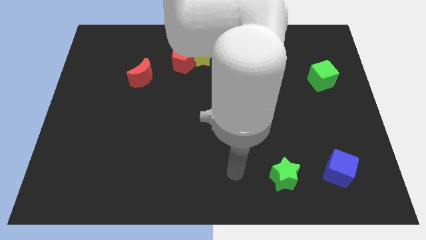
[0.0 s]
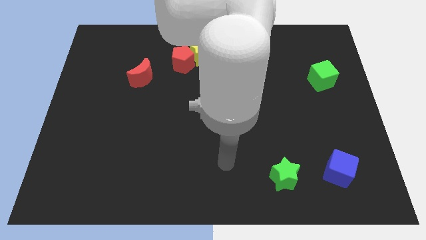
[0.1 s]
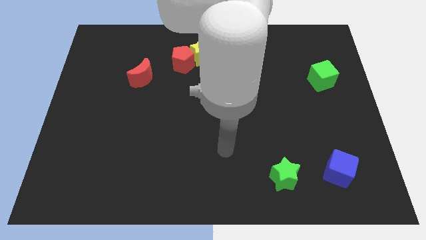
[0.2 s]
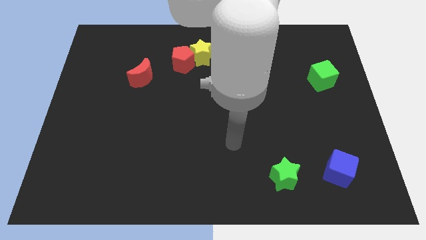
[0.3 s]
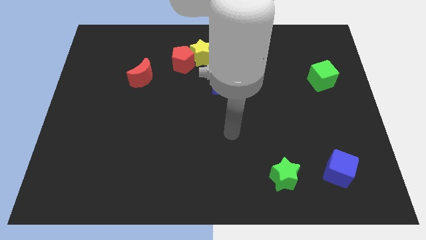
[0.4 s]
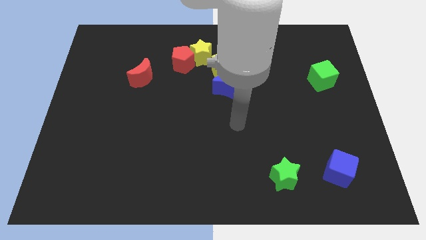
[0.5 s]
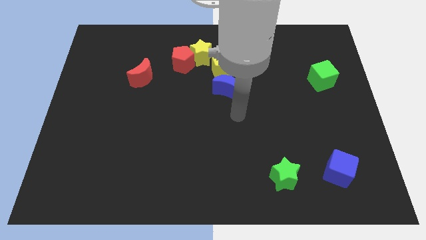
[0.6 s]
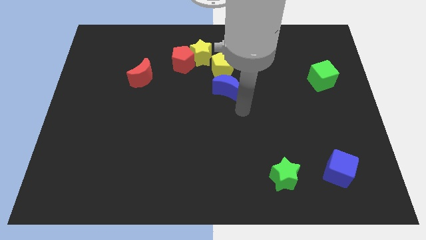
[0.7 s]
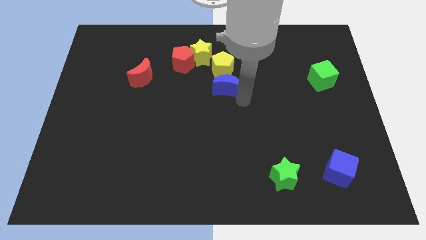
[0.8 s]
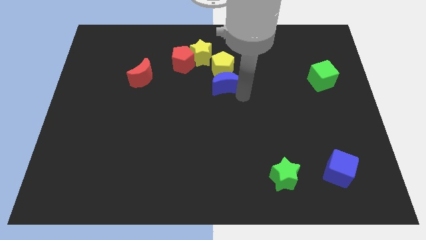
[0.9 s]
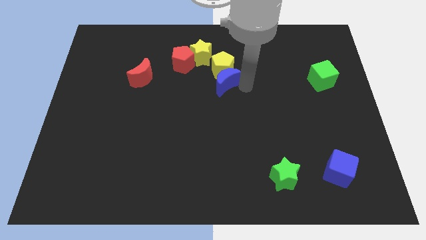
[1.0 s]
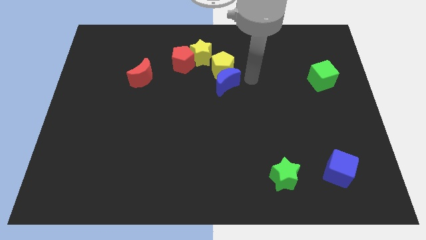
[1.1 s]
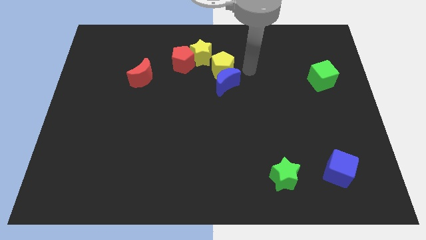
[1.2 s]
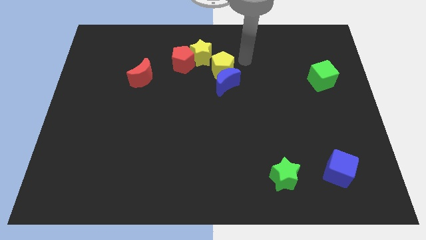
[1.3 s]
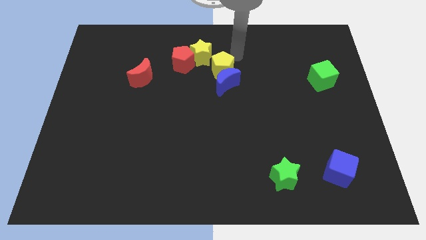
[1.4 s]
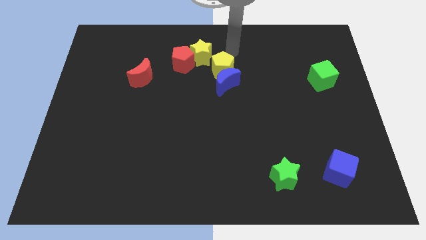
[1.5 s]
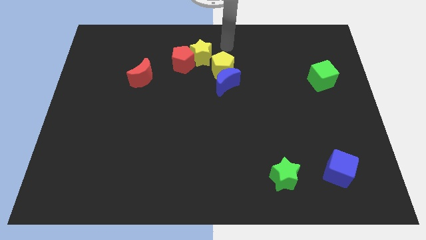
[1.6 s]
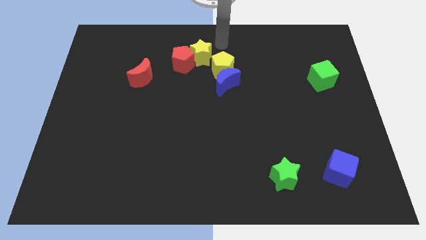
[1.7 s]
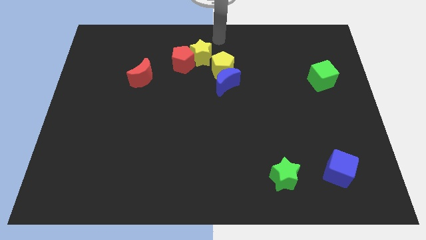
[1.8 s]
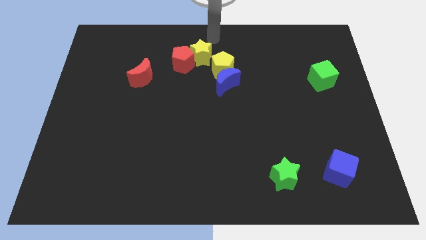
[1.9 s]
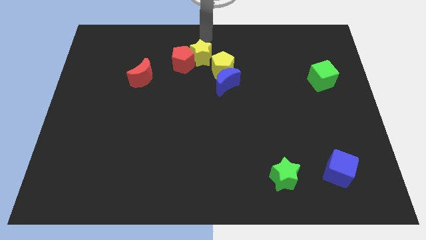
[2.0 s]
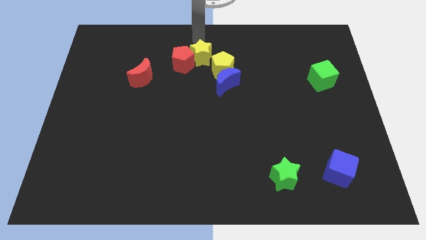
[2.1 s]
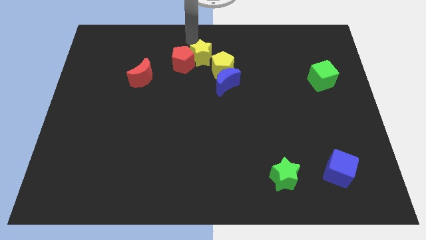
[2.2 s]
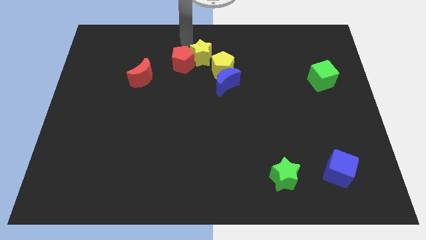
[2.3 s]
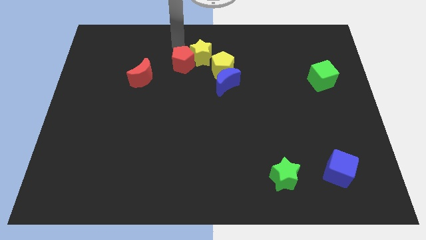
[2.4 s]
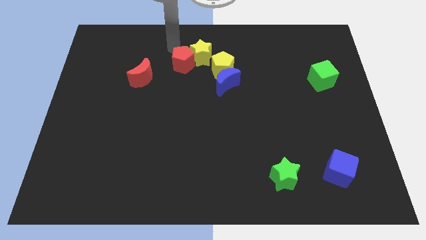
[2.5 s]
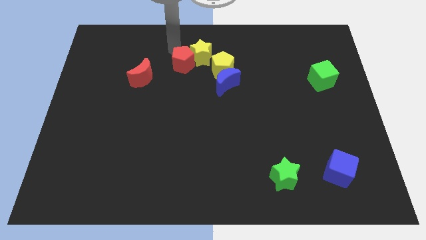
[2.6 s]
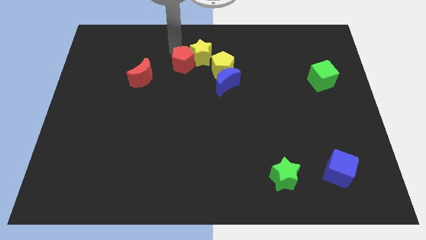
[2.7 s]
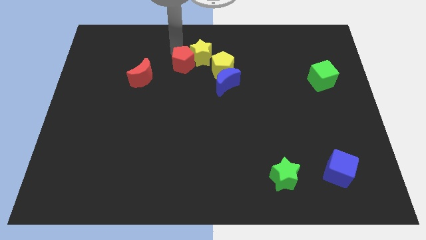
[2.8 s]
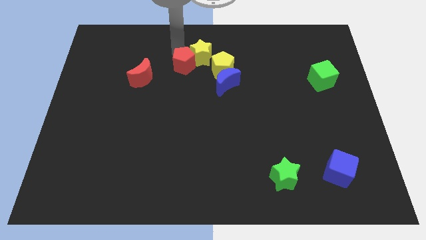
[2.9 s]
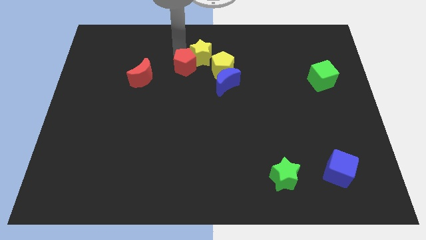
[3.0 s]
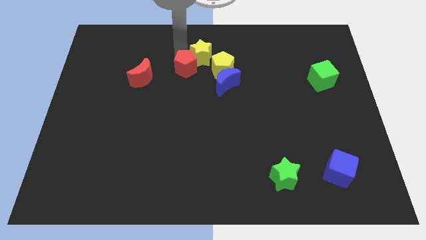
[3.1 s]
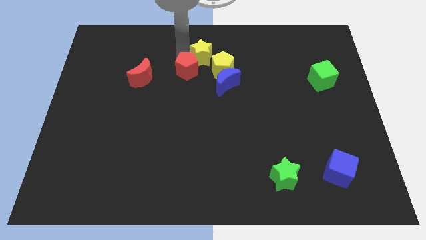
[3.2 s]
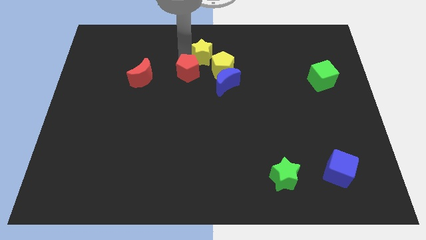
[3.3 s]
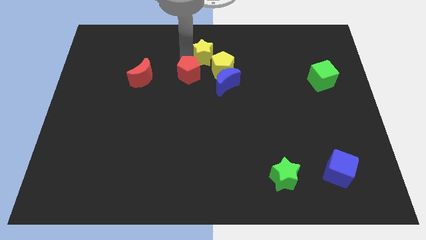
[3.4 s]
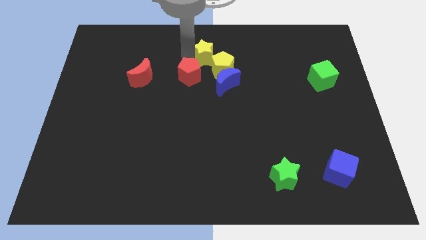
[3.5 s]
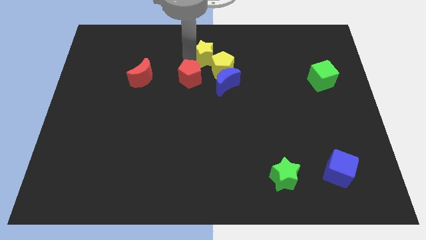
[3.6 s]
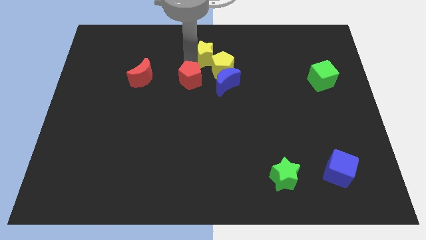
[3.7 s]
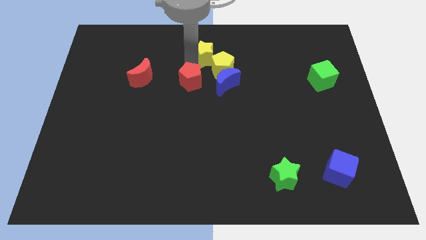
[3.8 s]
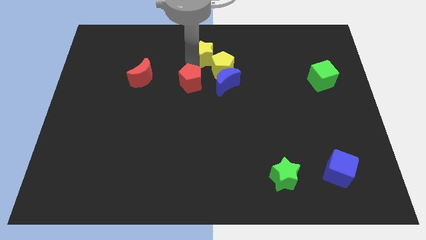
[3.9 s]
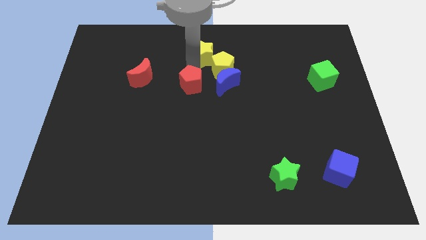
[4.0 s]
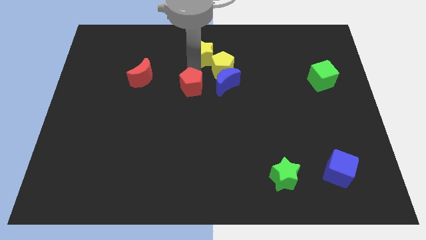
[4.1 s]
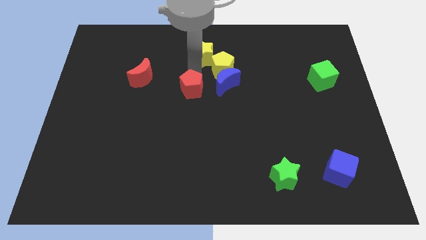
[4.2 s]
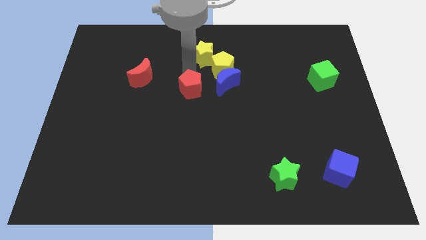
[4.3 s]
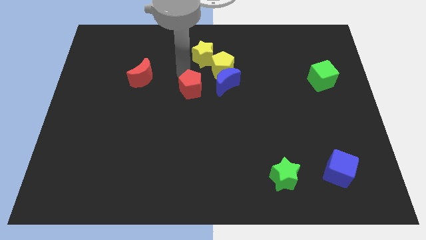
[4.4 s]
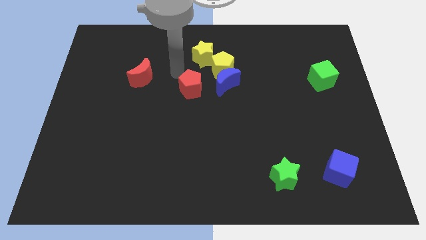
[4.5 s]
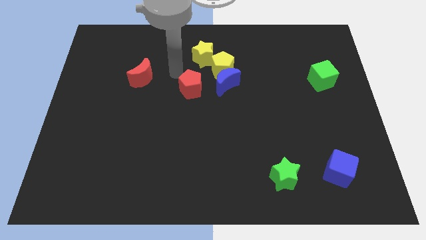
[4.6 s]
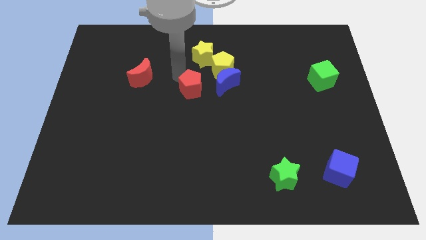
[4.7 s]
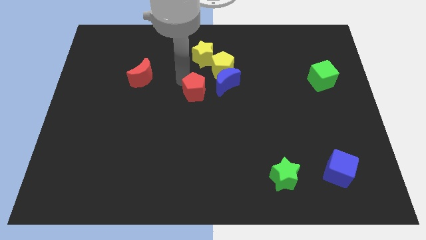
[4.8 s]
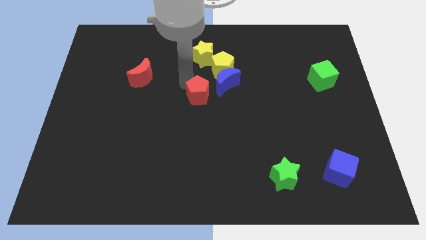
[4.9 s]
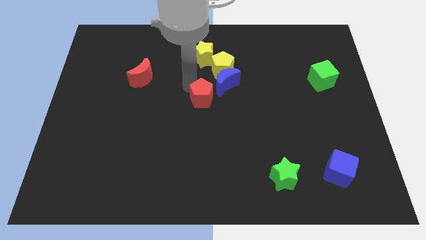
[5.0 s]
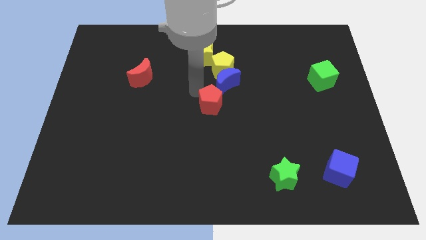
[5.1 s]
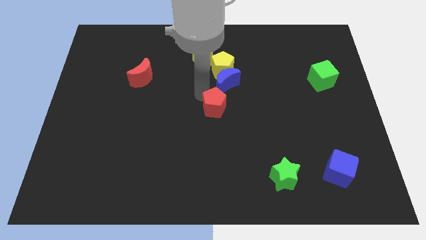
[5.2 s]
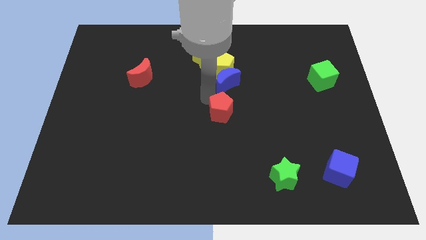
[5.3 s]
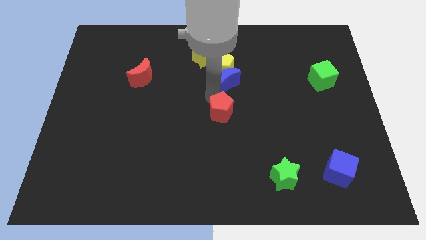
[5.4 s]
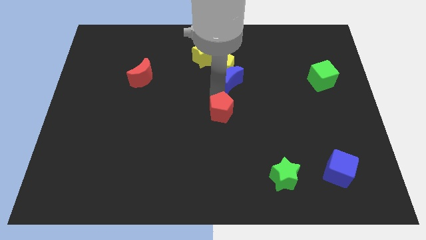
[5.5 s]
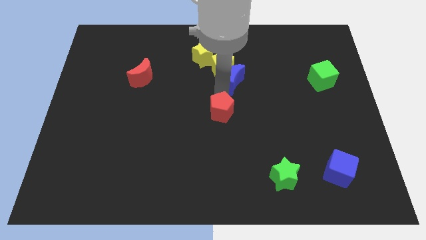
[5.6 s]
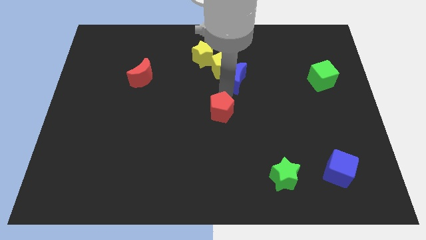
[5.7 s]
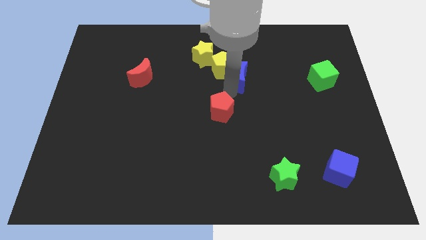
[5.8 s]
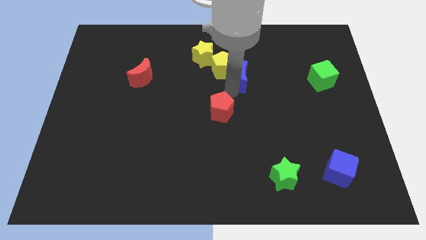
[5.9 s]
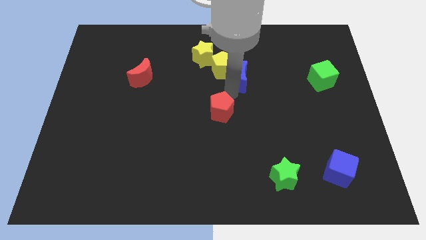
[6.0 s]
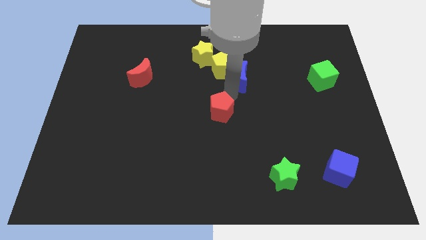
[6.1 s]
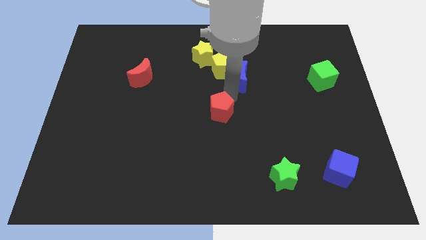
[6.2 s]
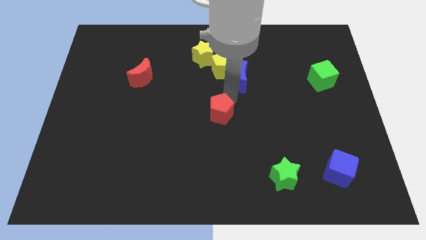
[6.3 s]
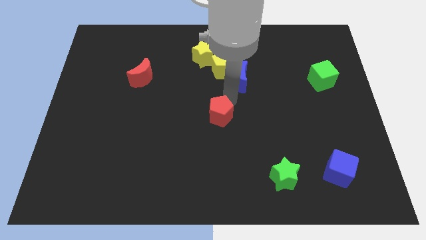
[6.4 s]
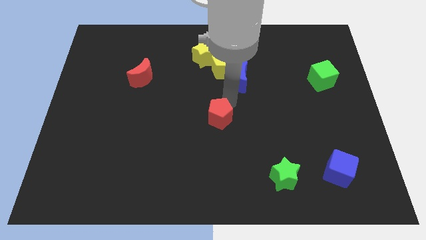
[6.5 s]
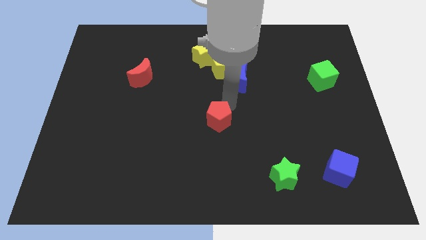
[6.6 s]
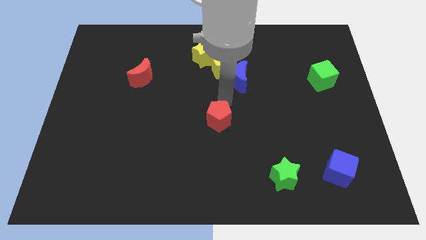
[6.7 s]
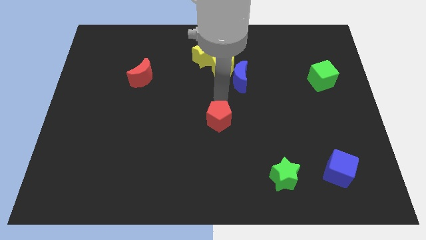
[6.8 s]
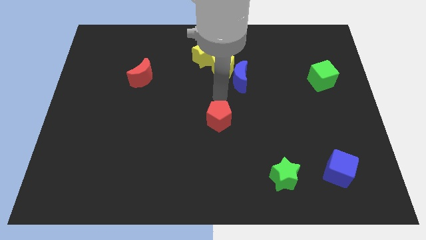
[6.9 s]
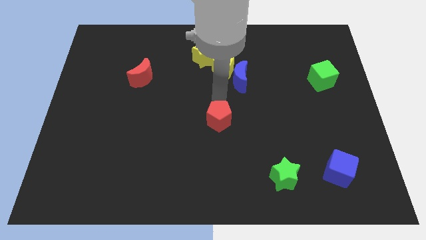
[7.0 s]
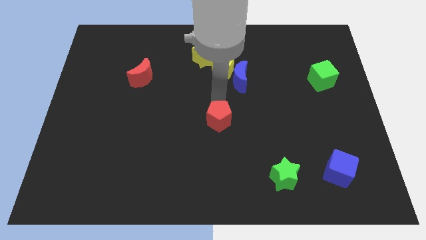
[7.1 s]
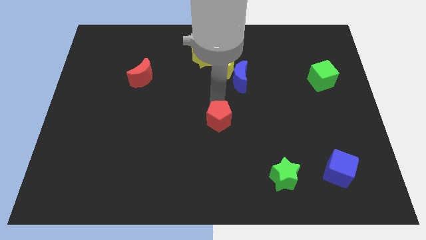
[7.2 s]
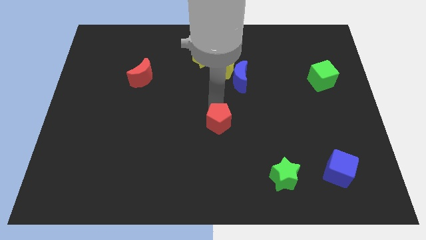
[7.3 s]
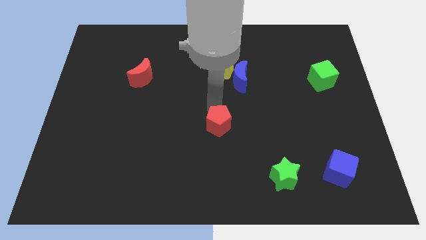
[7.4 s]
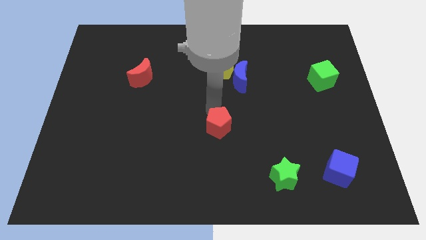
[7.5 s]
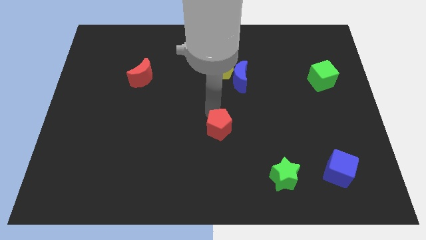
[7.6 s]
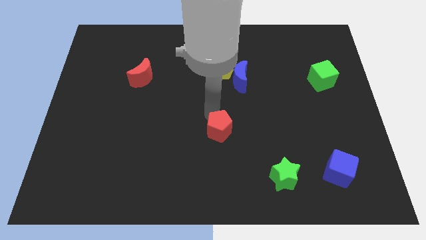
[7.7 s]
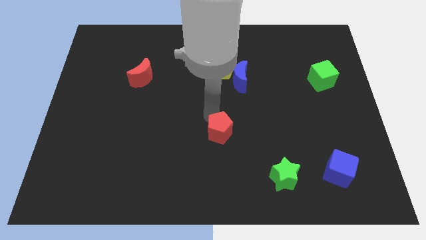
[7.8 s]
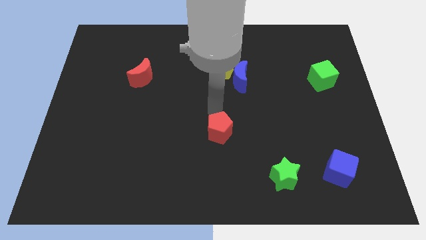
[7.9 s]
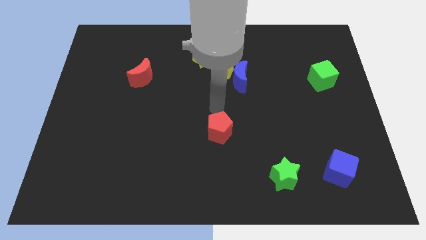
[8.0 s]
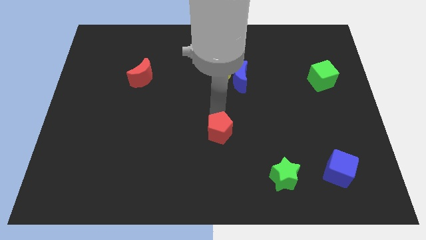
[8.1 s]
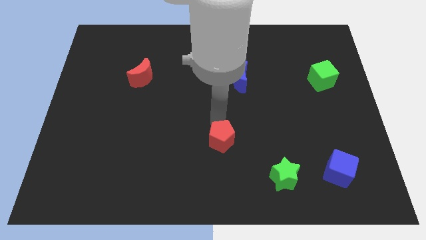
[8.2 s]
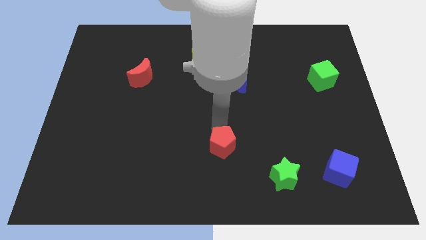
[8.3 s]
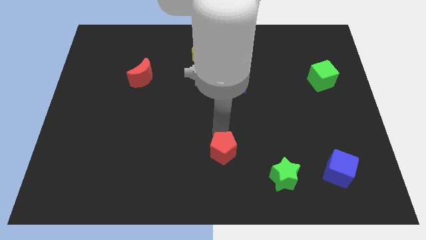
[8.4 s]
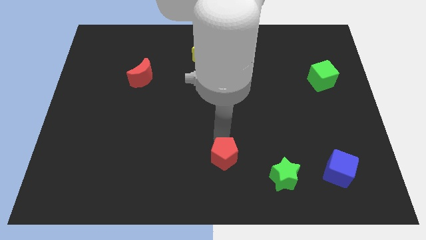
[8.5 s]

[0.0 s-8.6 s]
move the red pentagon to the bottom side
